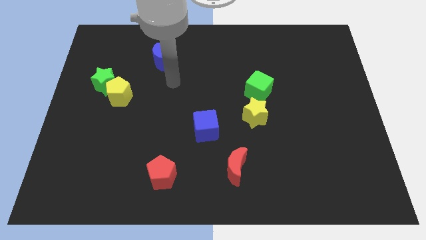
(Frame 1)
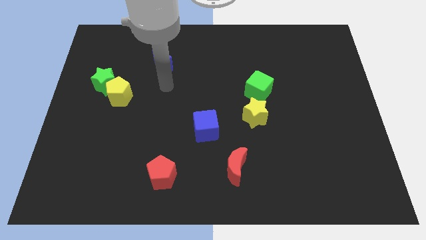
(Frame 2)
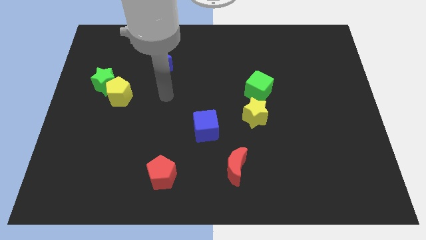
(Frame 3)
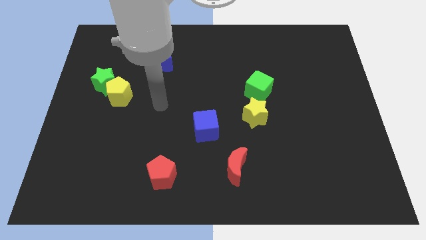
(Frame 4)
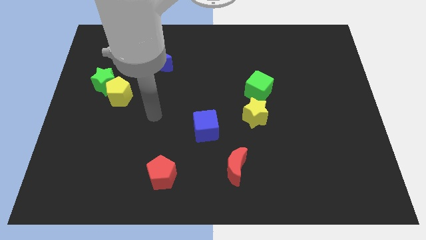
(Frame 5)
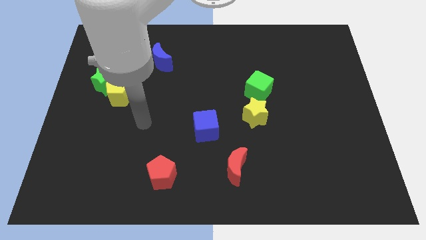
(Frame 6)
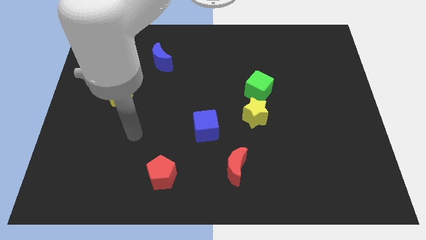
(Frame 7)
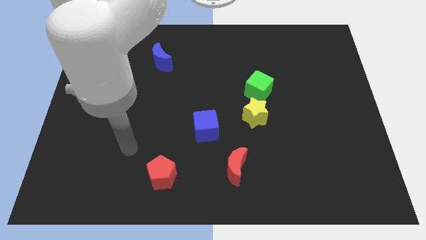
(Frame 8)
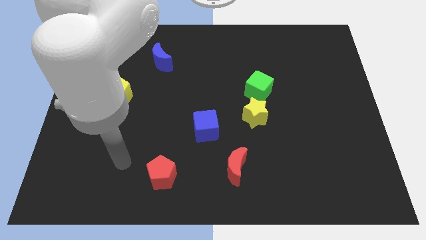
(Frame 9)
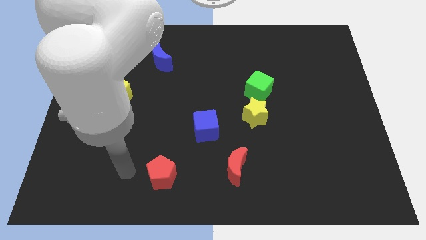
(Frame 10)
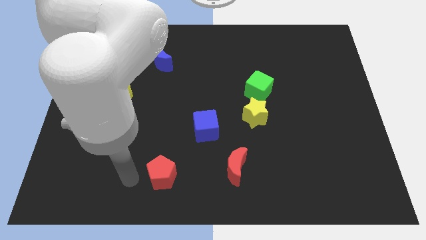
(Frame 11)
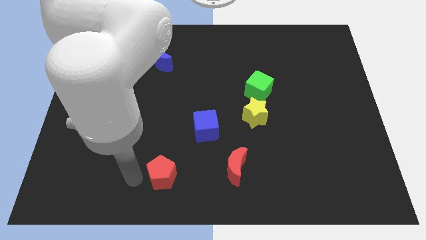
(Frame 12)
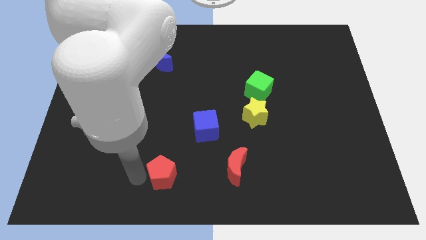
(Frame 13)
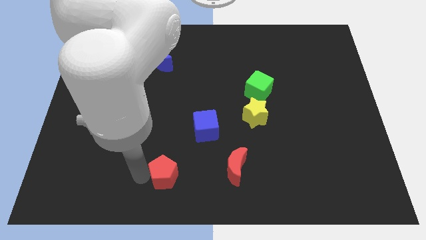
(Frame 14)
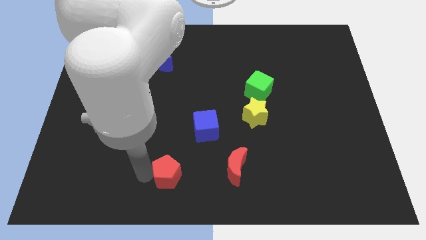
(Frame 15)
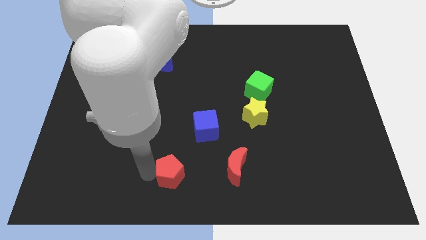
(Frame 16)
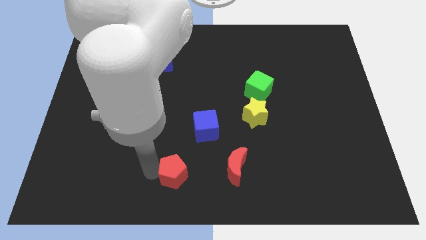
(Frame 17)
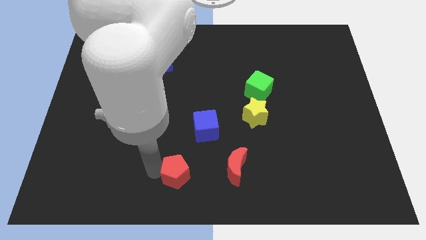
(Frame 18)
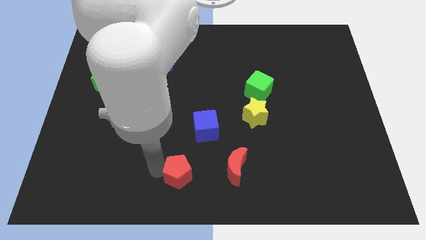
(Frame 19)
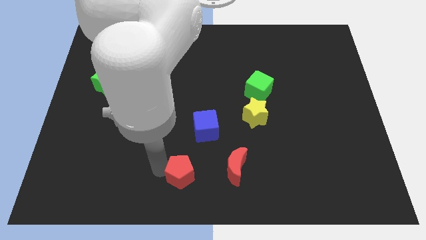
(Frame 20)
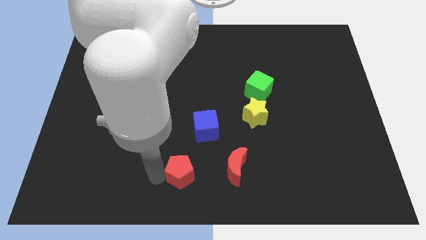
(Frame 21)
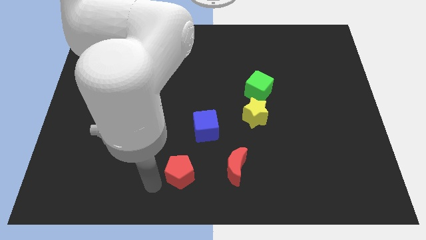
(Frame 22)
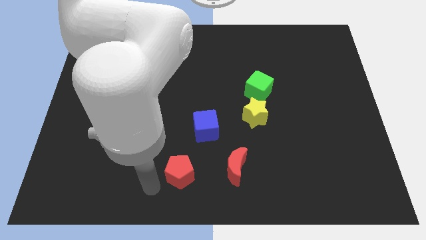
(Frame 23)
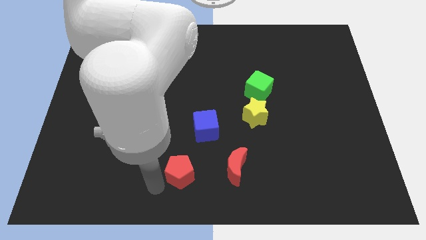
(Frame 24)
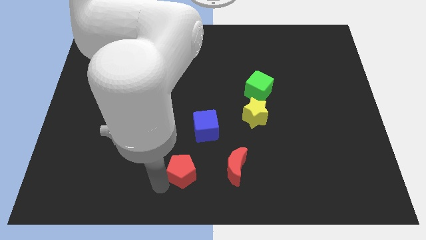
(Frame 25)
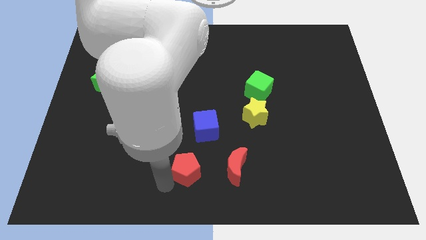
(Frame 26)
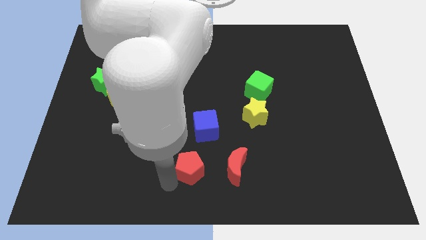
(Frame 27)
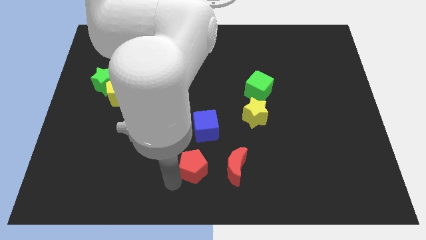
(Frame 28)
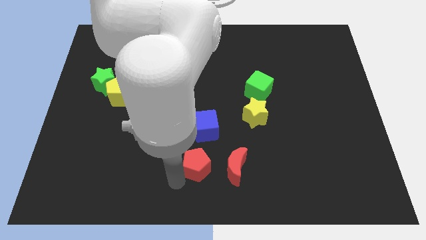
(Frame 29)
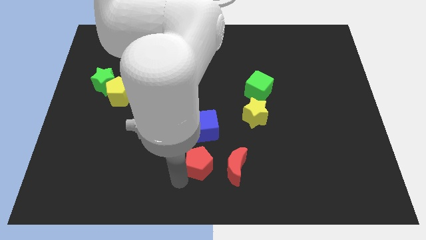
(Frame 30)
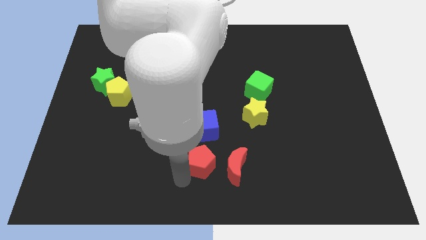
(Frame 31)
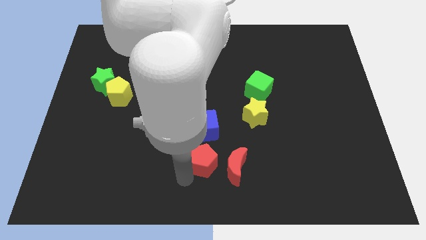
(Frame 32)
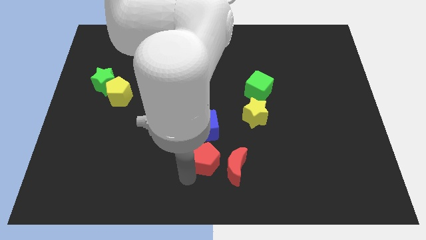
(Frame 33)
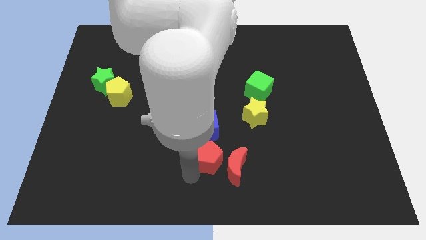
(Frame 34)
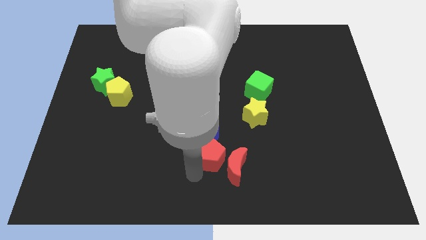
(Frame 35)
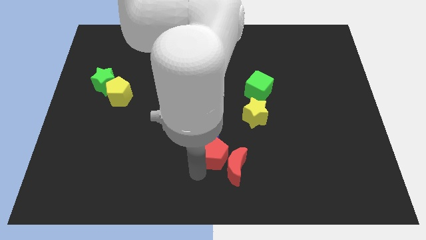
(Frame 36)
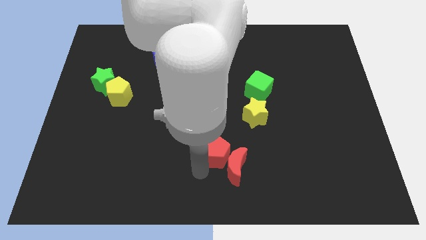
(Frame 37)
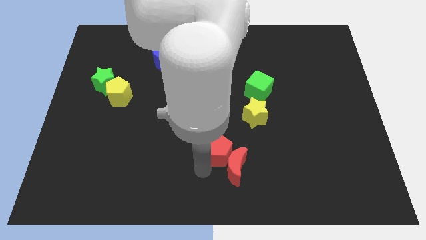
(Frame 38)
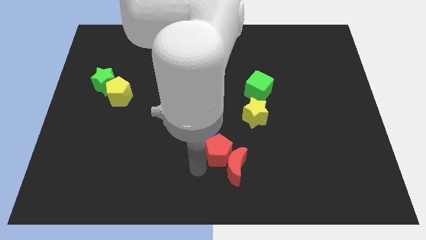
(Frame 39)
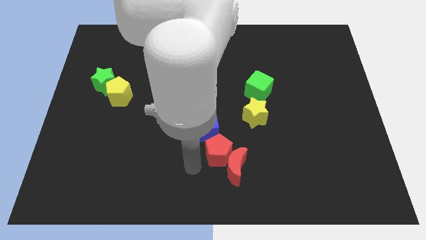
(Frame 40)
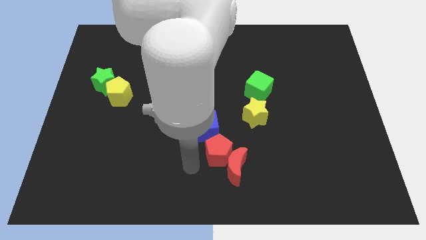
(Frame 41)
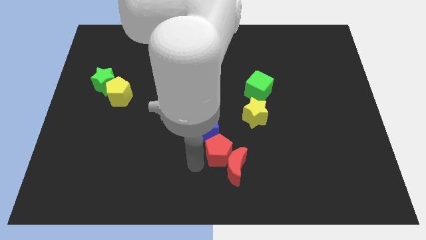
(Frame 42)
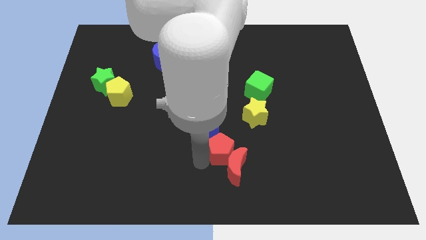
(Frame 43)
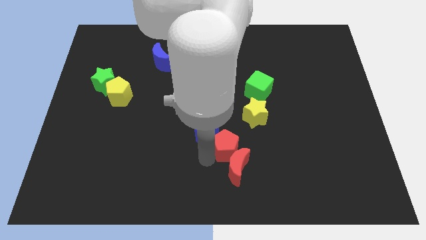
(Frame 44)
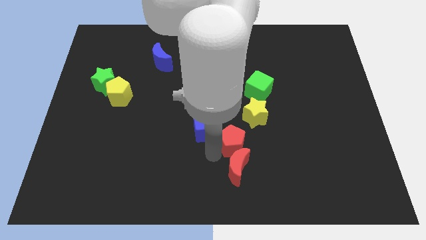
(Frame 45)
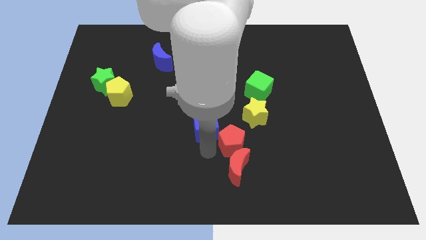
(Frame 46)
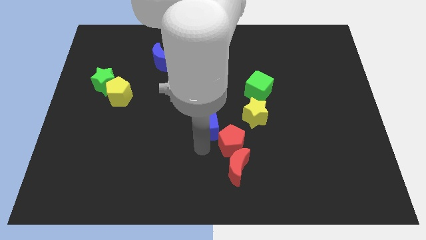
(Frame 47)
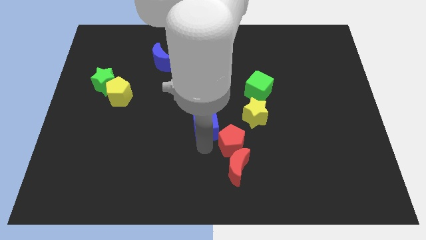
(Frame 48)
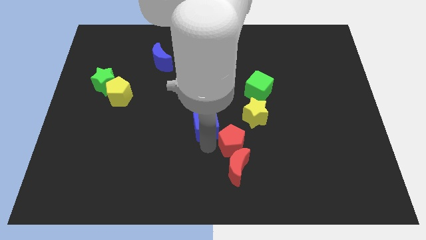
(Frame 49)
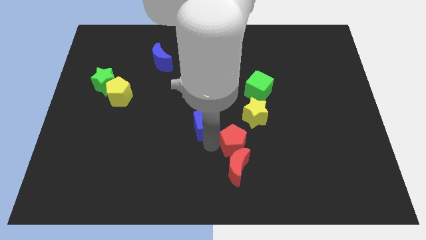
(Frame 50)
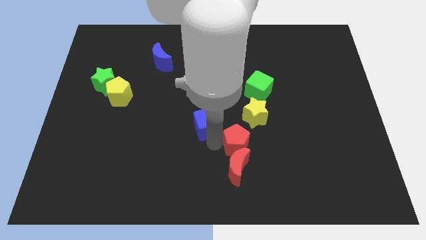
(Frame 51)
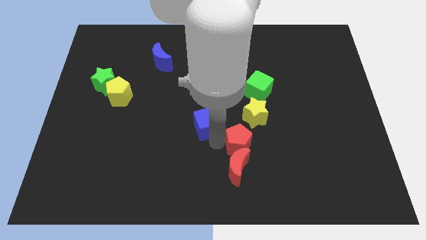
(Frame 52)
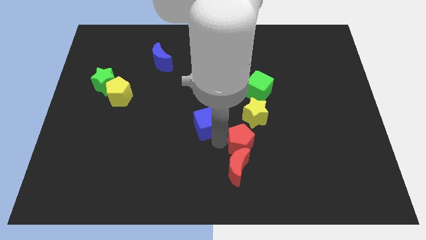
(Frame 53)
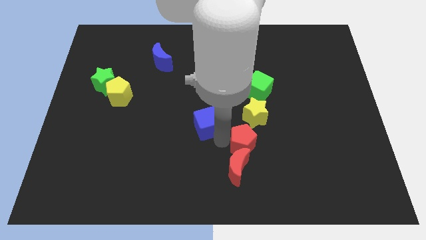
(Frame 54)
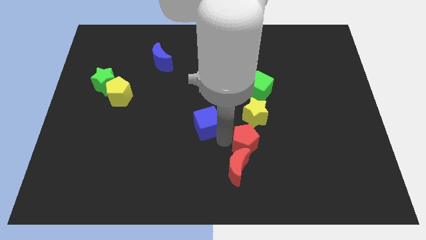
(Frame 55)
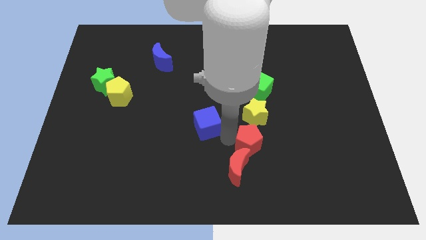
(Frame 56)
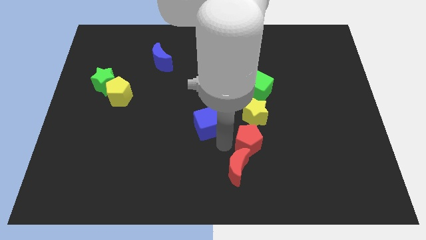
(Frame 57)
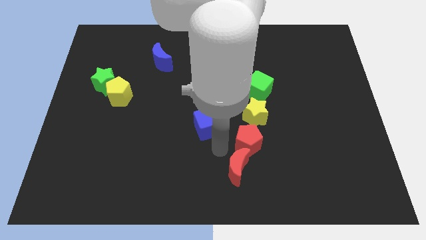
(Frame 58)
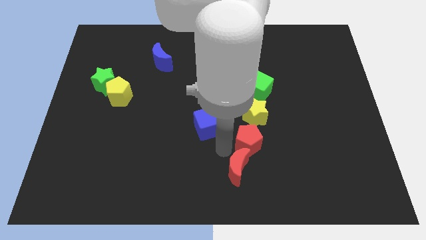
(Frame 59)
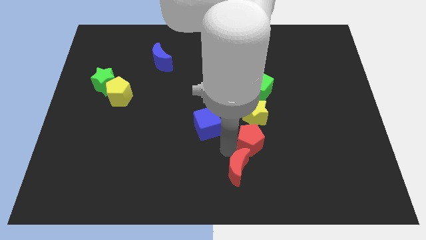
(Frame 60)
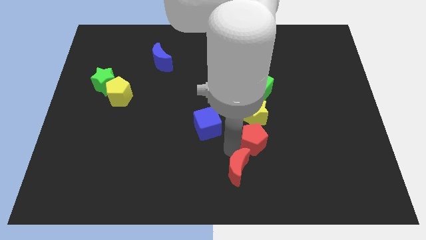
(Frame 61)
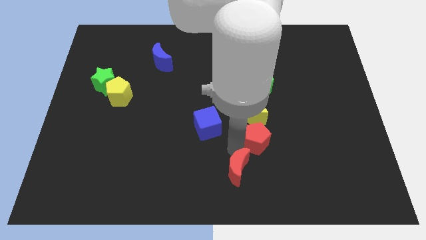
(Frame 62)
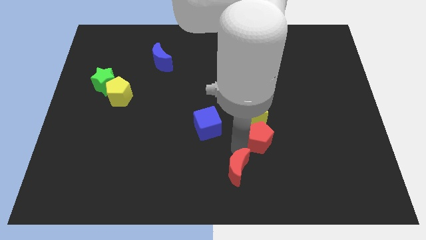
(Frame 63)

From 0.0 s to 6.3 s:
move the red pentagon diagonally down and to the right of the yellow star

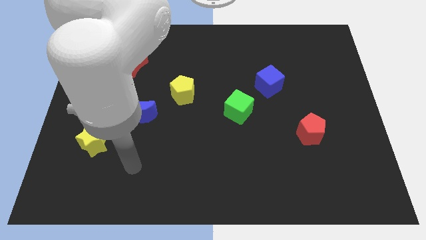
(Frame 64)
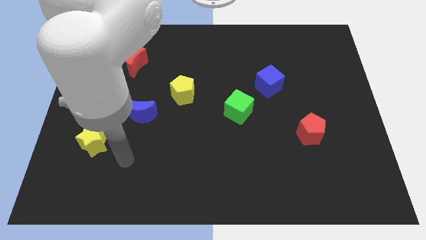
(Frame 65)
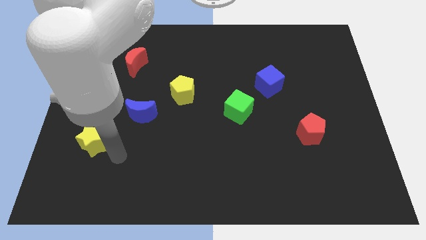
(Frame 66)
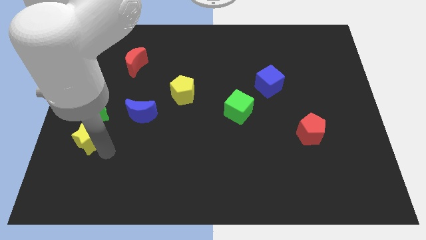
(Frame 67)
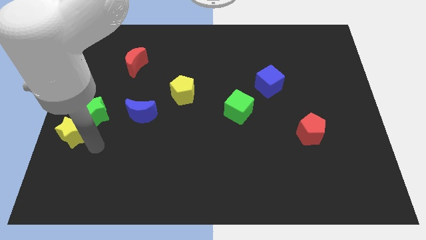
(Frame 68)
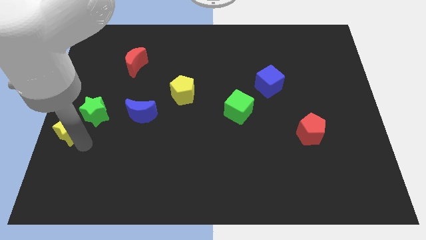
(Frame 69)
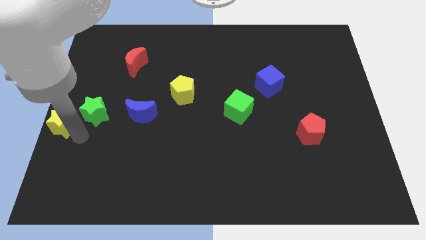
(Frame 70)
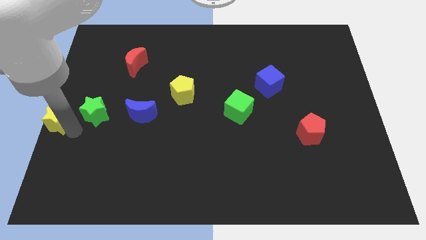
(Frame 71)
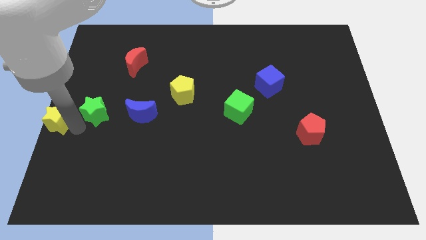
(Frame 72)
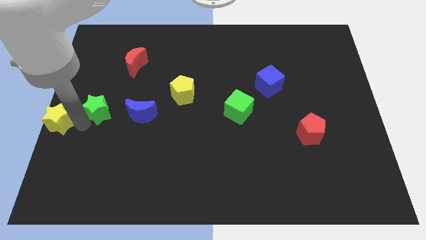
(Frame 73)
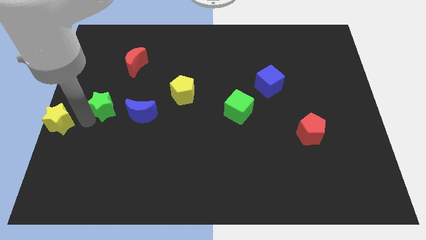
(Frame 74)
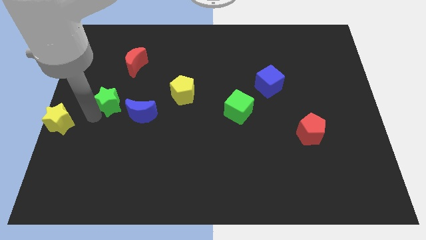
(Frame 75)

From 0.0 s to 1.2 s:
put the green star to the bottom of the red moon
